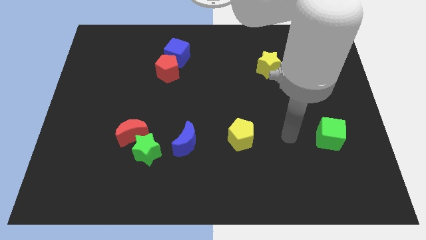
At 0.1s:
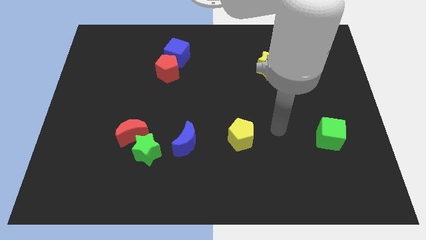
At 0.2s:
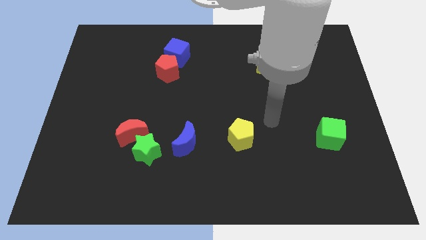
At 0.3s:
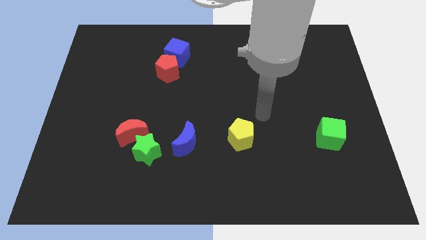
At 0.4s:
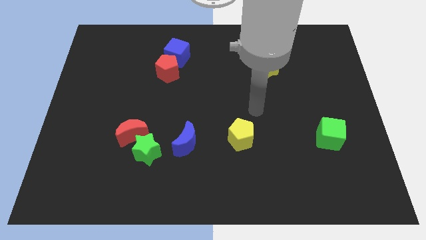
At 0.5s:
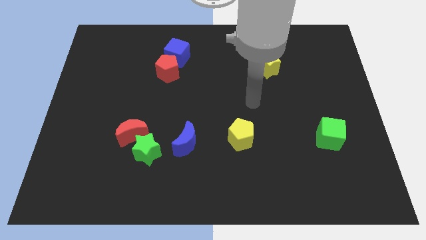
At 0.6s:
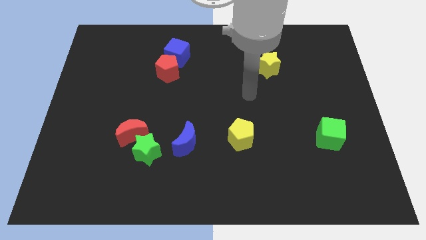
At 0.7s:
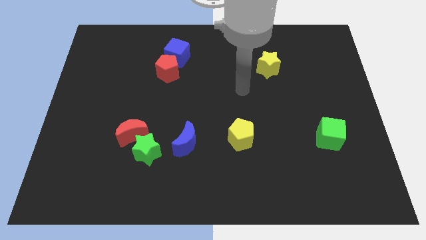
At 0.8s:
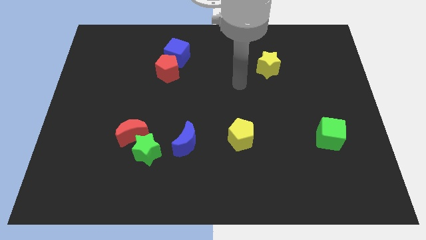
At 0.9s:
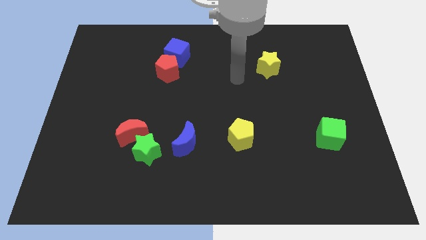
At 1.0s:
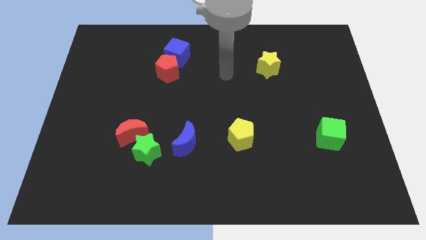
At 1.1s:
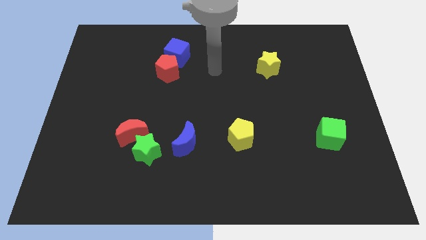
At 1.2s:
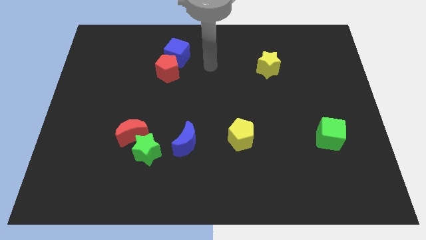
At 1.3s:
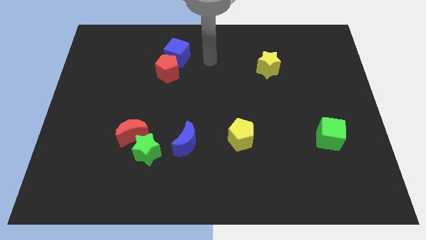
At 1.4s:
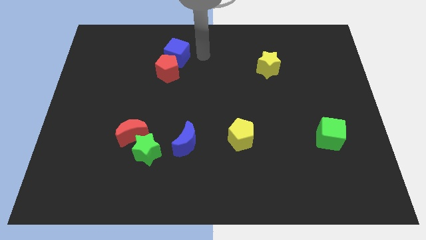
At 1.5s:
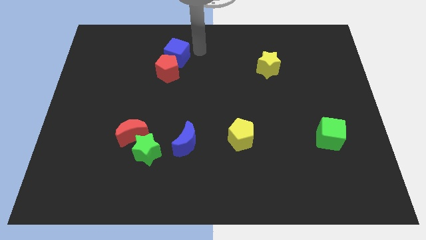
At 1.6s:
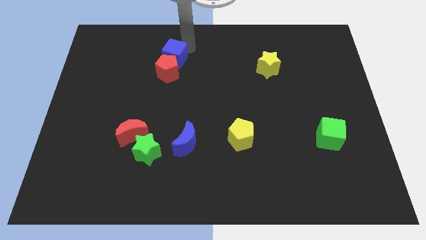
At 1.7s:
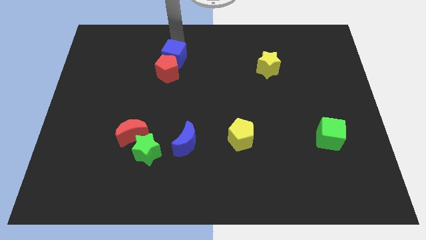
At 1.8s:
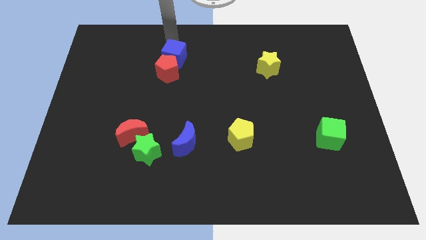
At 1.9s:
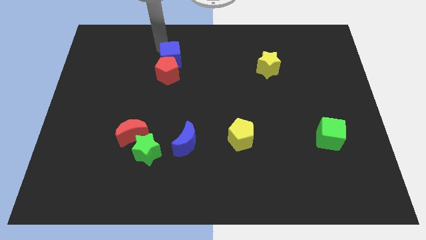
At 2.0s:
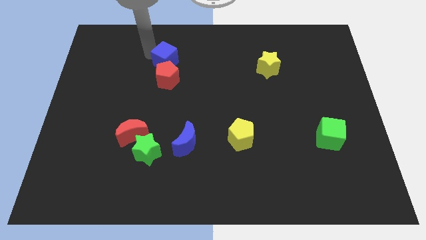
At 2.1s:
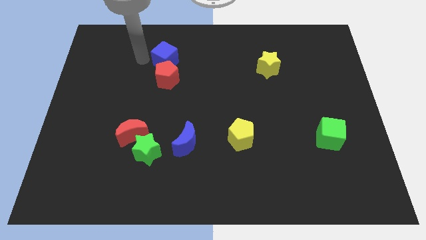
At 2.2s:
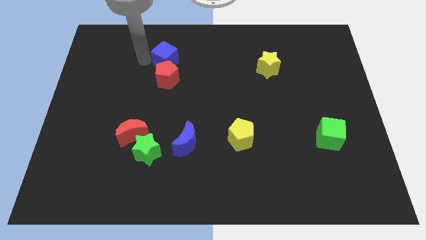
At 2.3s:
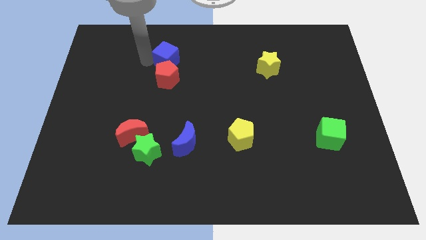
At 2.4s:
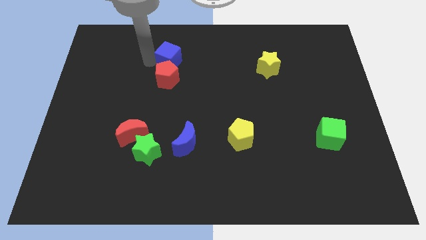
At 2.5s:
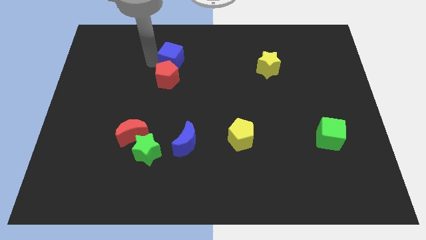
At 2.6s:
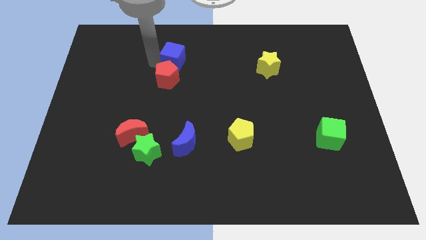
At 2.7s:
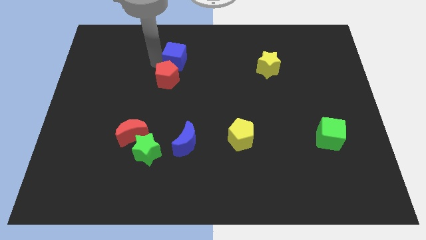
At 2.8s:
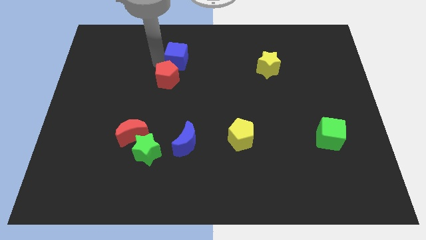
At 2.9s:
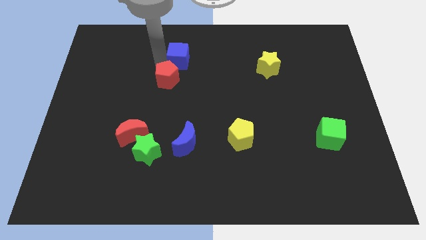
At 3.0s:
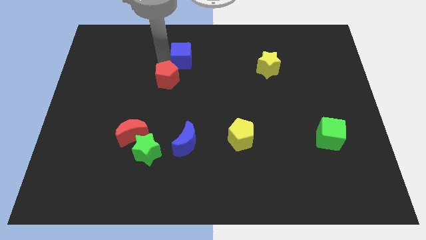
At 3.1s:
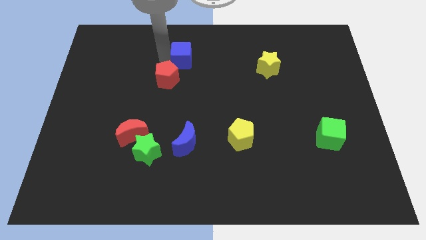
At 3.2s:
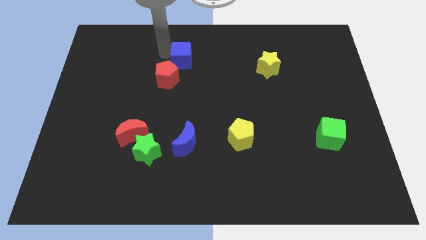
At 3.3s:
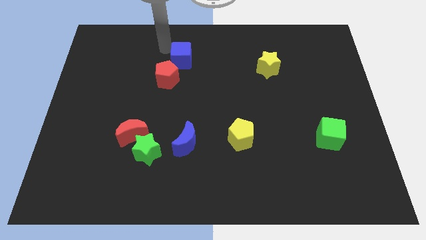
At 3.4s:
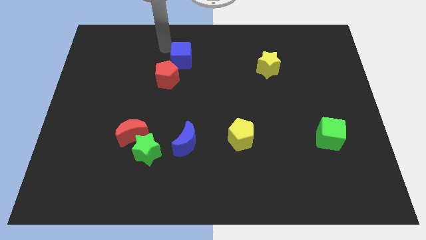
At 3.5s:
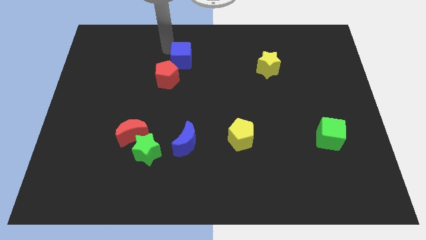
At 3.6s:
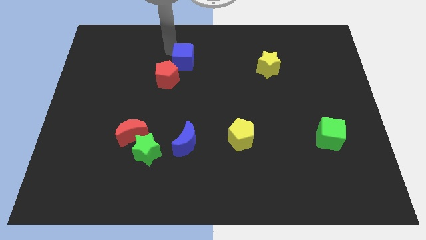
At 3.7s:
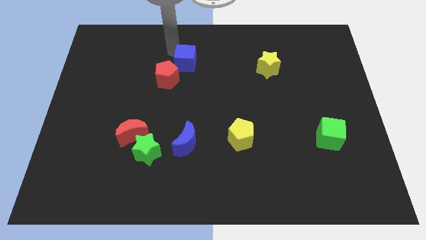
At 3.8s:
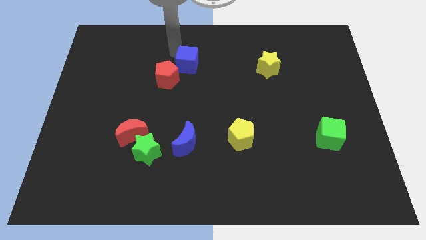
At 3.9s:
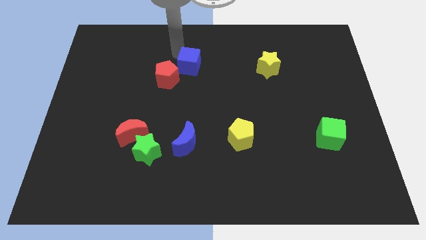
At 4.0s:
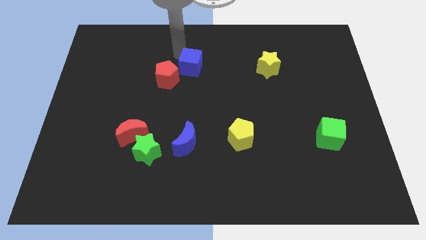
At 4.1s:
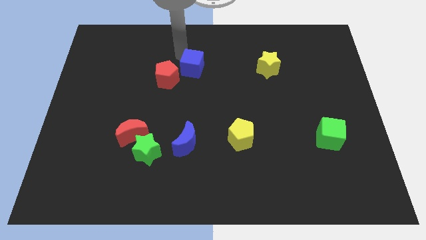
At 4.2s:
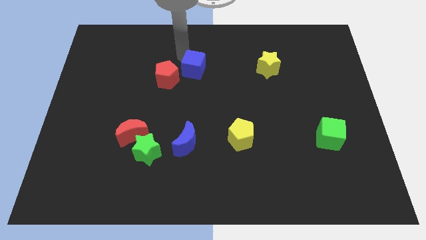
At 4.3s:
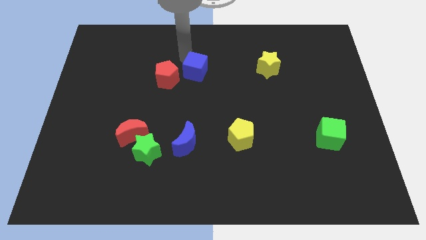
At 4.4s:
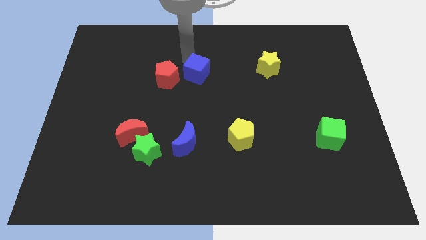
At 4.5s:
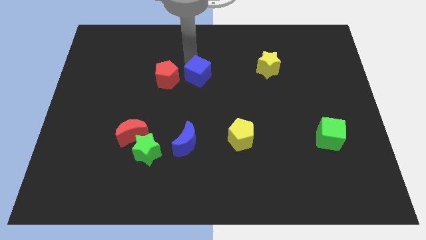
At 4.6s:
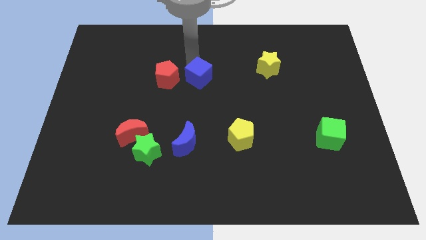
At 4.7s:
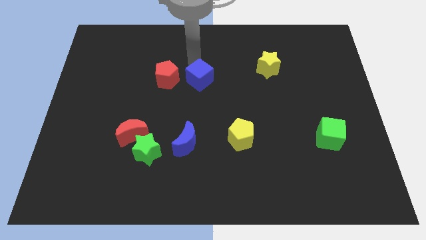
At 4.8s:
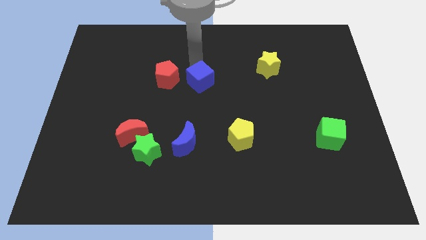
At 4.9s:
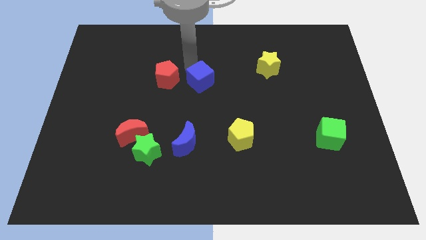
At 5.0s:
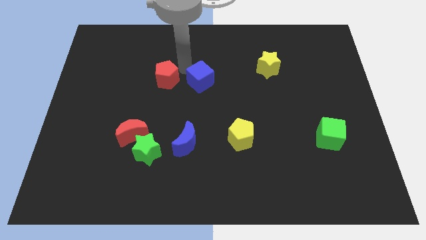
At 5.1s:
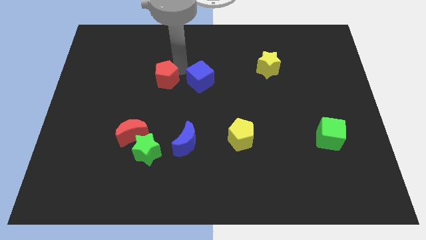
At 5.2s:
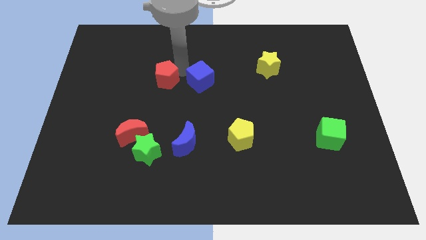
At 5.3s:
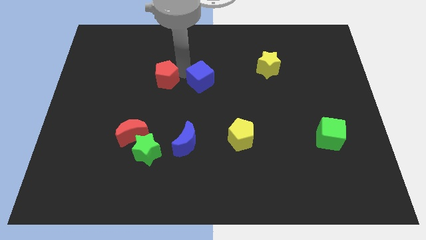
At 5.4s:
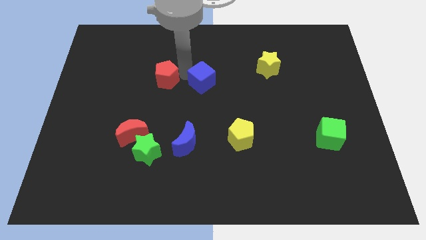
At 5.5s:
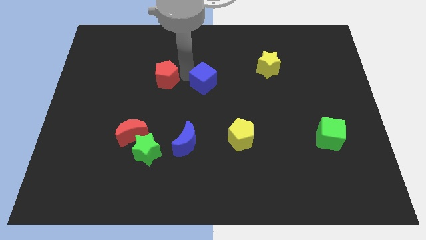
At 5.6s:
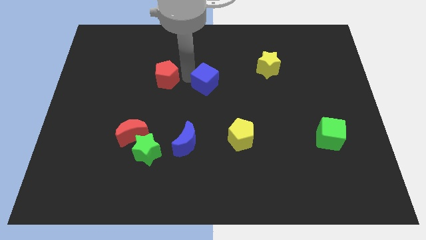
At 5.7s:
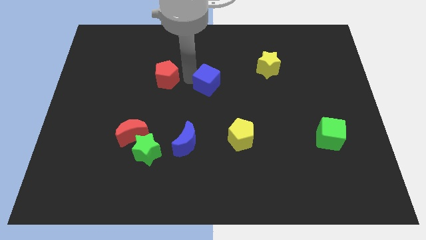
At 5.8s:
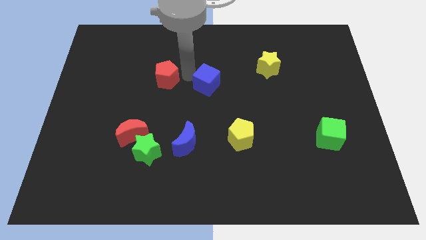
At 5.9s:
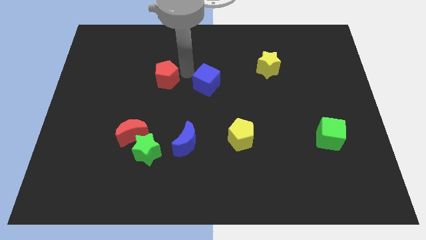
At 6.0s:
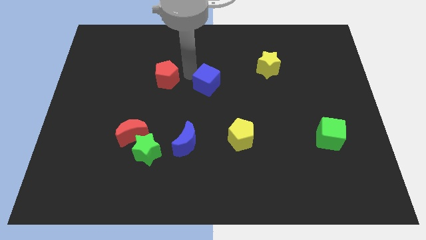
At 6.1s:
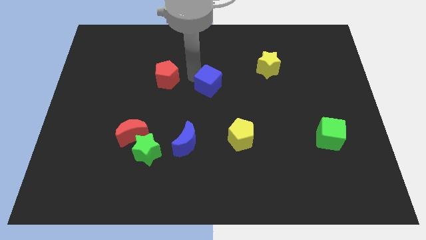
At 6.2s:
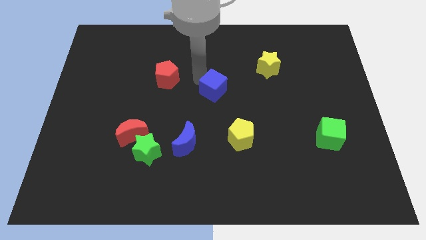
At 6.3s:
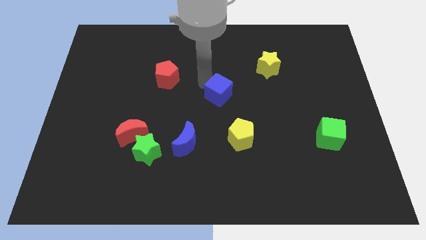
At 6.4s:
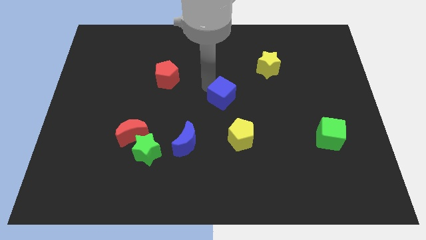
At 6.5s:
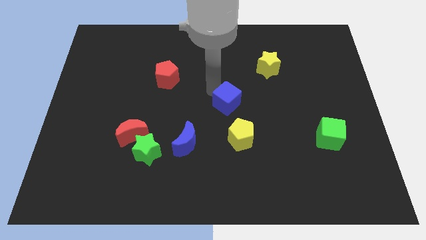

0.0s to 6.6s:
slide the blue cube diagonally downwards and right

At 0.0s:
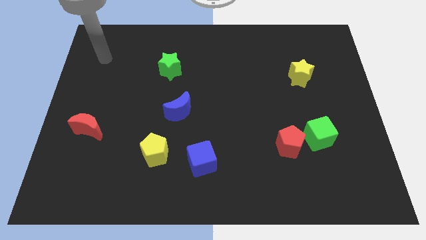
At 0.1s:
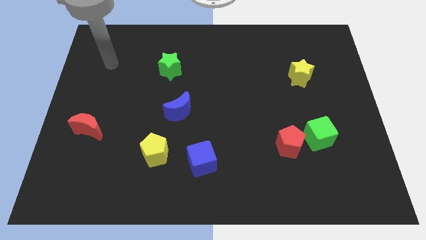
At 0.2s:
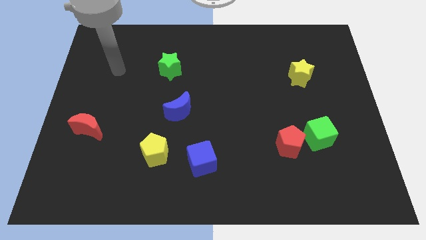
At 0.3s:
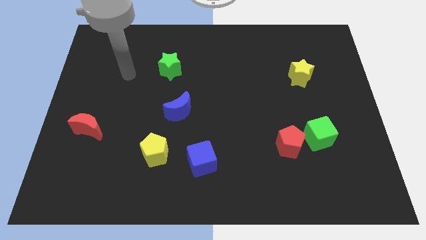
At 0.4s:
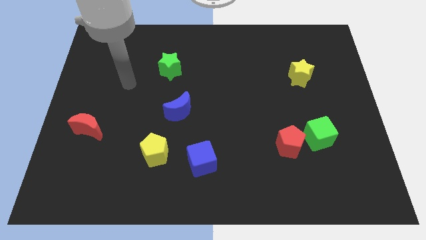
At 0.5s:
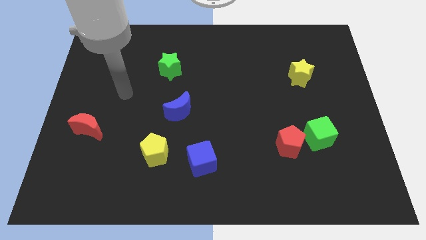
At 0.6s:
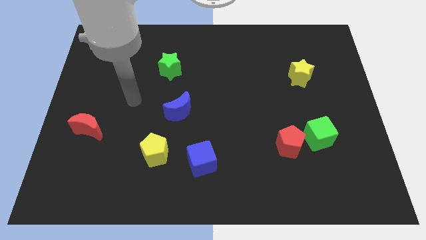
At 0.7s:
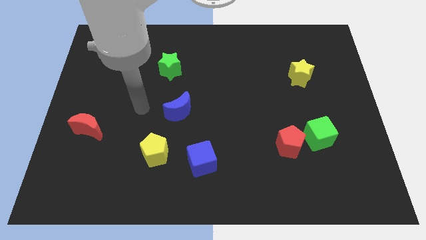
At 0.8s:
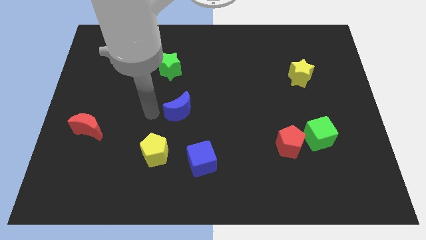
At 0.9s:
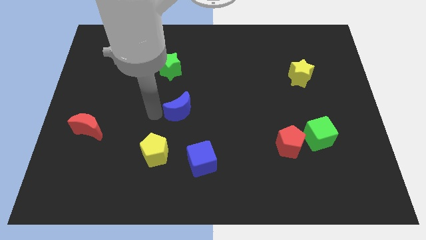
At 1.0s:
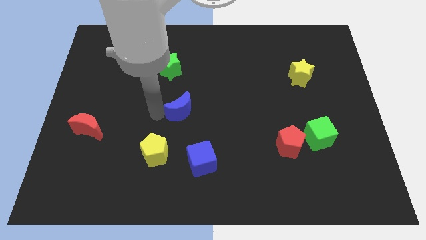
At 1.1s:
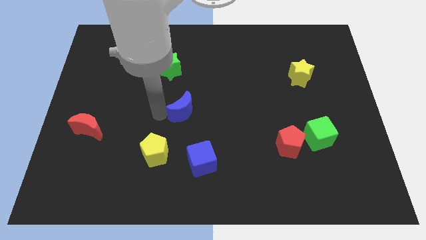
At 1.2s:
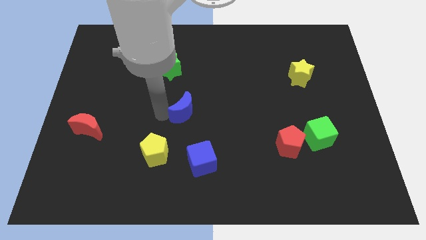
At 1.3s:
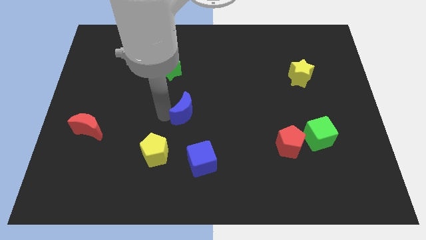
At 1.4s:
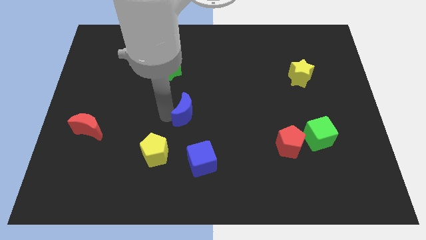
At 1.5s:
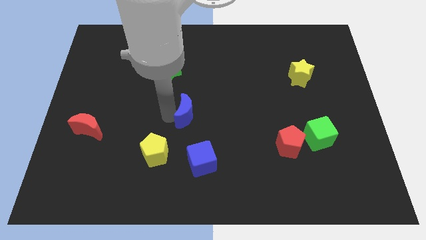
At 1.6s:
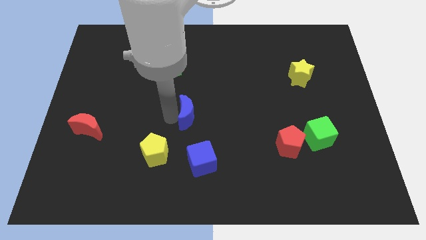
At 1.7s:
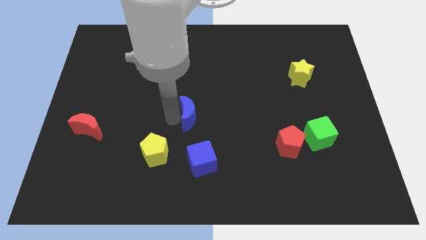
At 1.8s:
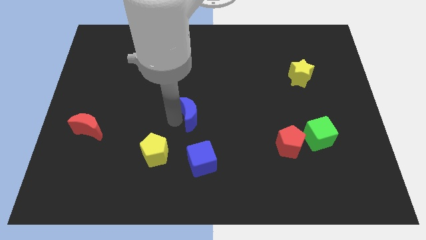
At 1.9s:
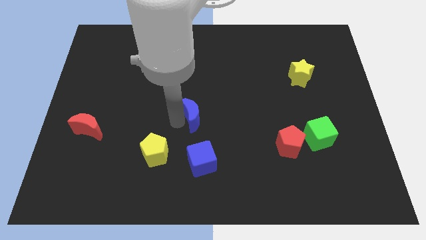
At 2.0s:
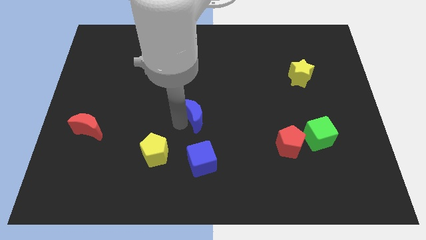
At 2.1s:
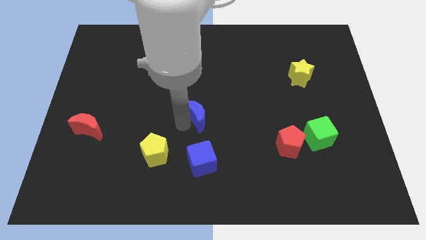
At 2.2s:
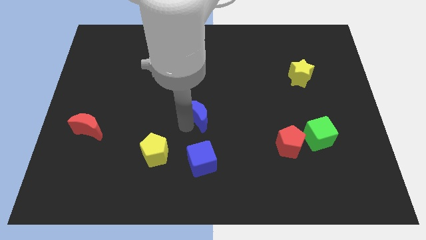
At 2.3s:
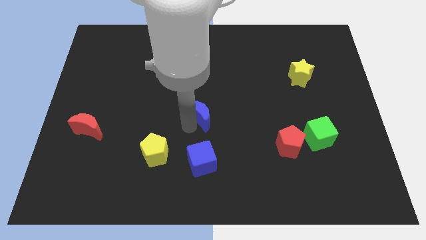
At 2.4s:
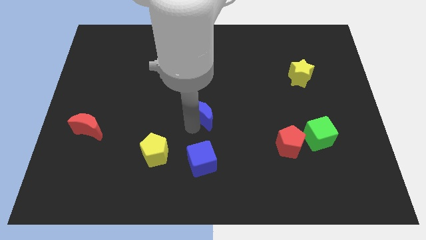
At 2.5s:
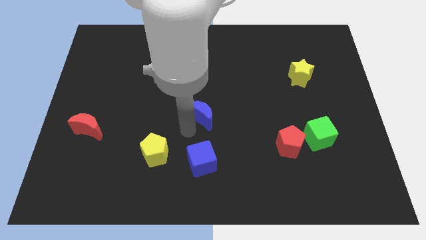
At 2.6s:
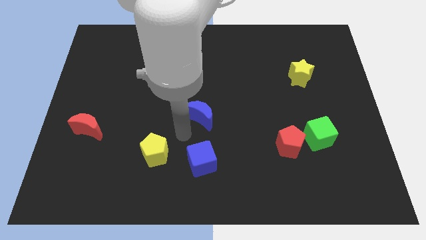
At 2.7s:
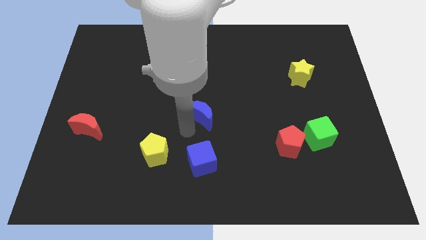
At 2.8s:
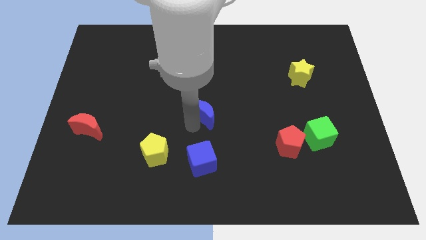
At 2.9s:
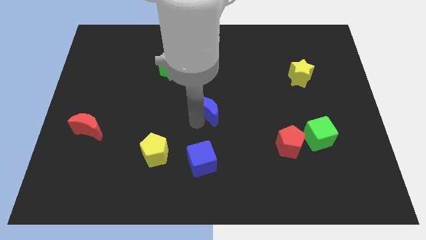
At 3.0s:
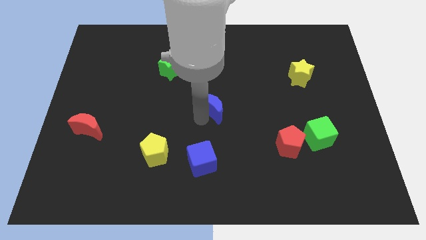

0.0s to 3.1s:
slightly move the blue moon to the right
